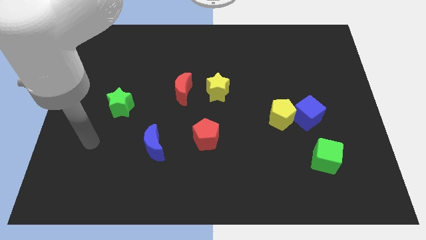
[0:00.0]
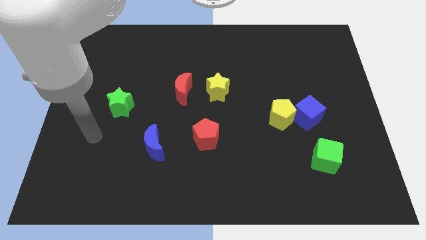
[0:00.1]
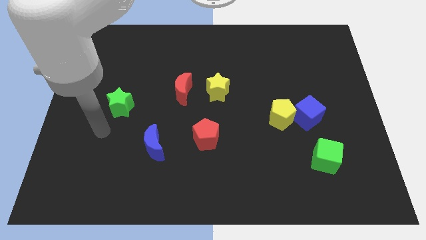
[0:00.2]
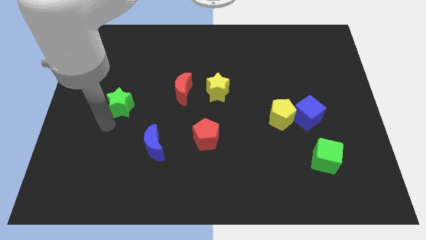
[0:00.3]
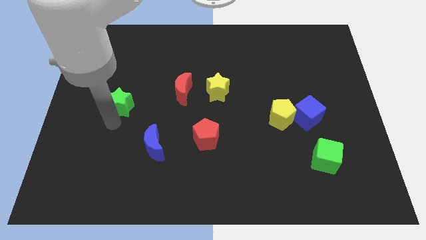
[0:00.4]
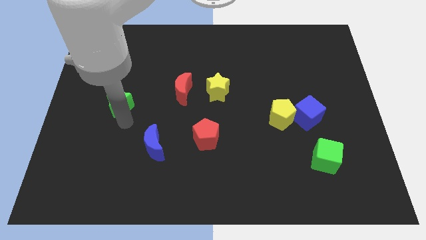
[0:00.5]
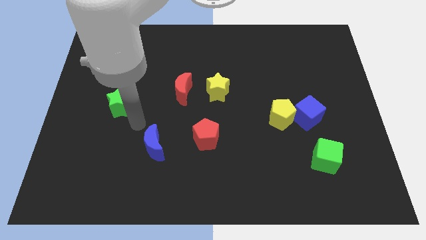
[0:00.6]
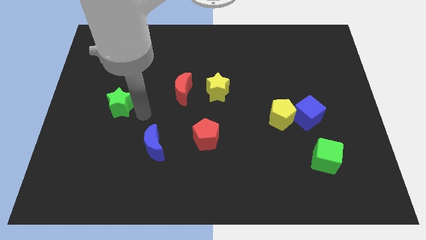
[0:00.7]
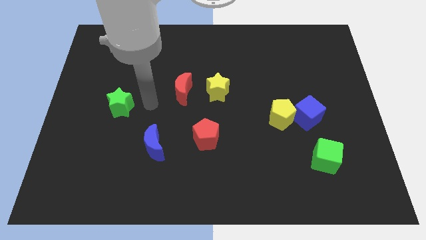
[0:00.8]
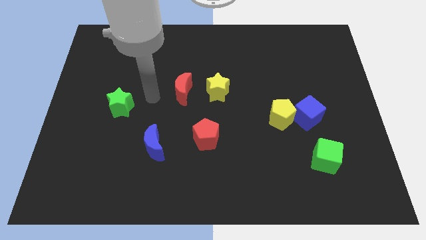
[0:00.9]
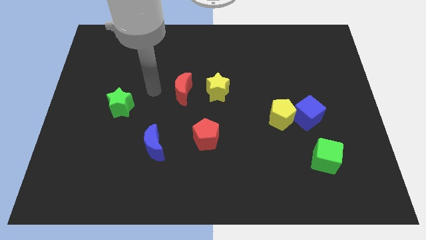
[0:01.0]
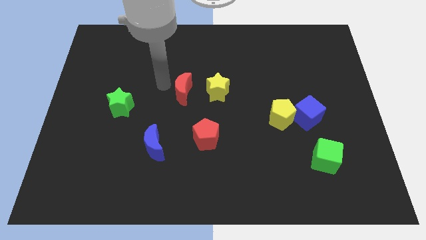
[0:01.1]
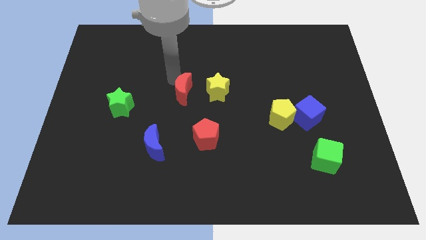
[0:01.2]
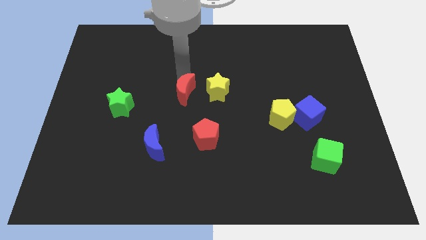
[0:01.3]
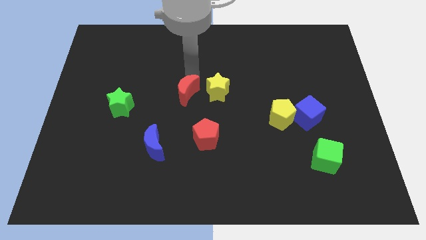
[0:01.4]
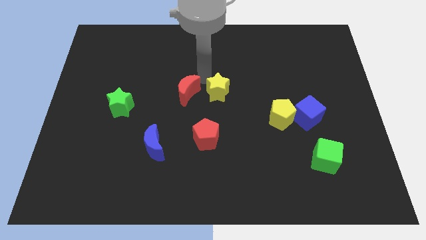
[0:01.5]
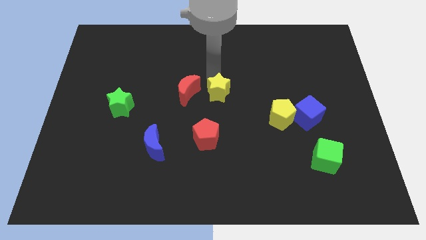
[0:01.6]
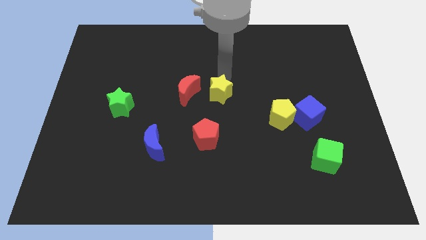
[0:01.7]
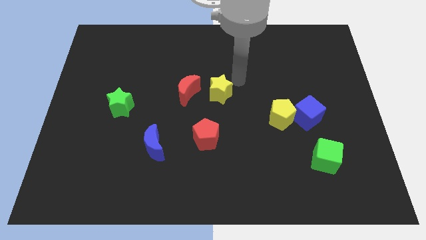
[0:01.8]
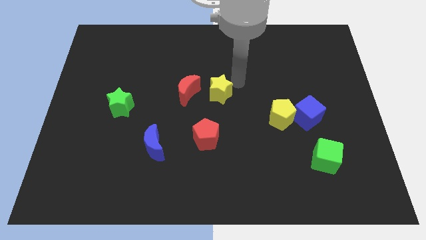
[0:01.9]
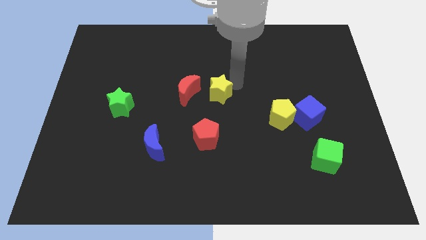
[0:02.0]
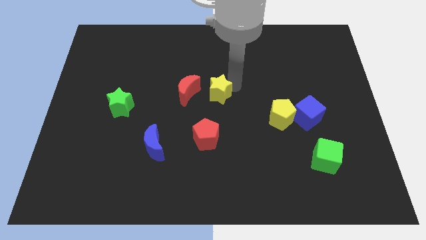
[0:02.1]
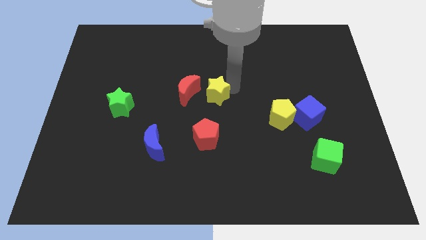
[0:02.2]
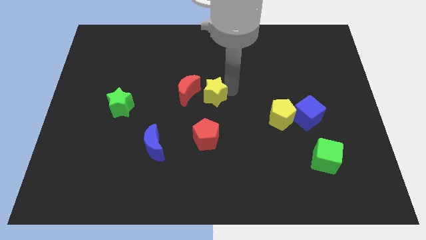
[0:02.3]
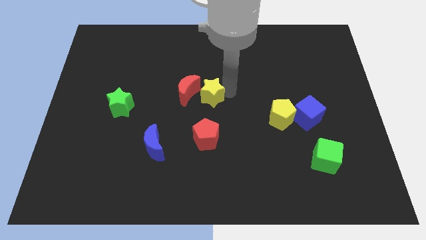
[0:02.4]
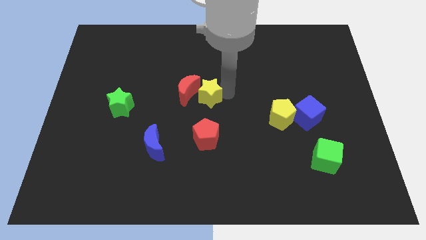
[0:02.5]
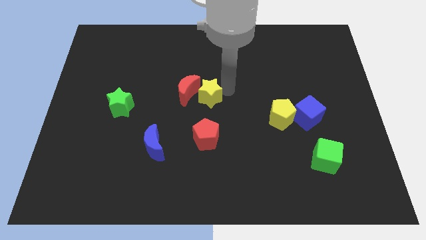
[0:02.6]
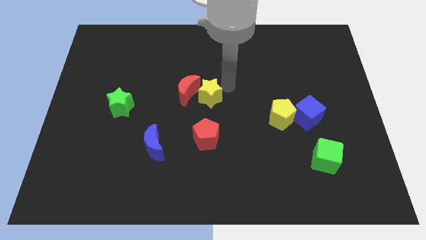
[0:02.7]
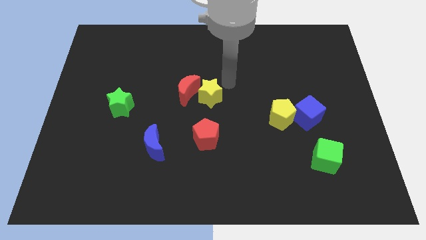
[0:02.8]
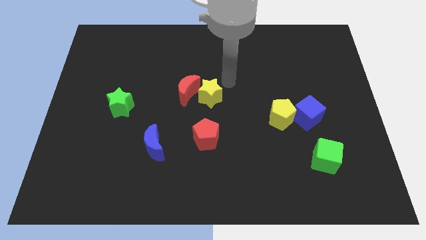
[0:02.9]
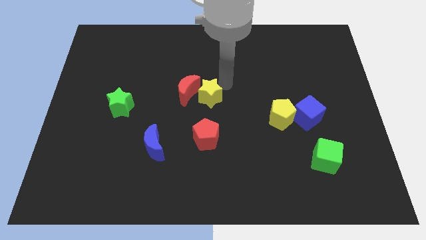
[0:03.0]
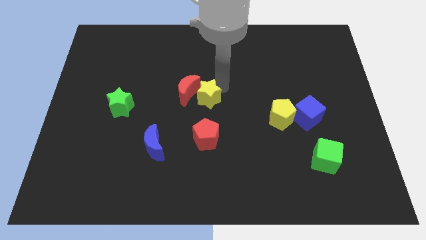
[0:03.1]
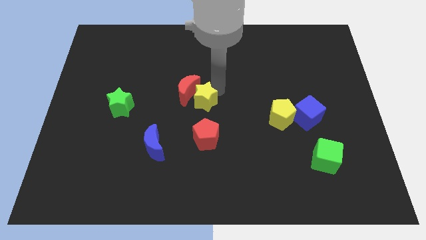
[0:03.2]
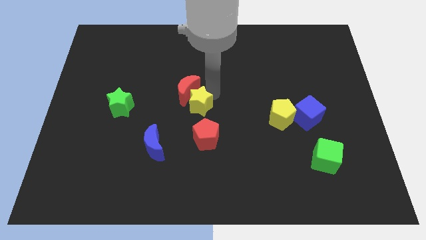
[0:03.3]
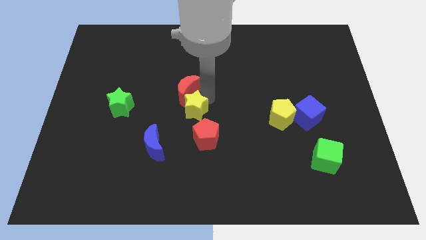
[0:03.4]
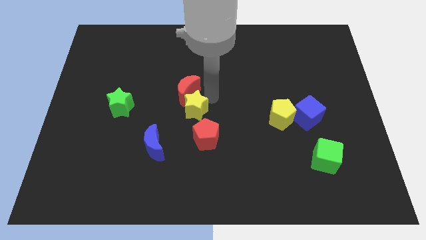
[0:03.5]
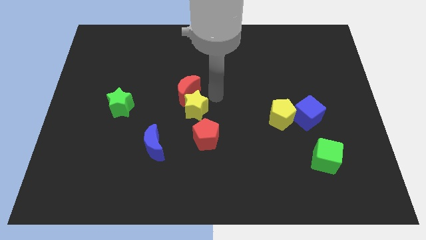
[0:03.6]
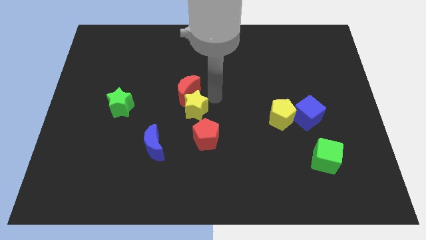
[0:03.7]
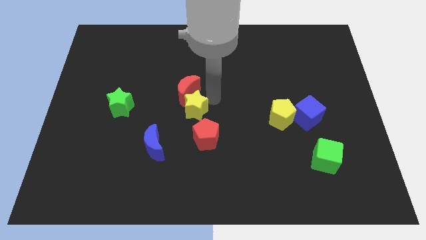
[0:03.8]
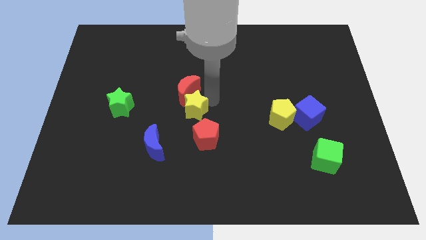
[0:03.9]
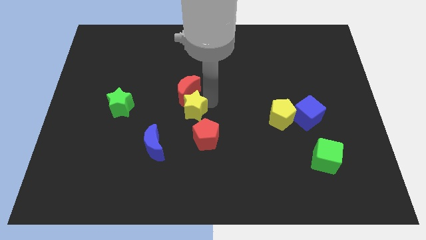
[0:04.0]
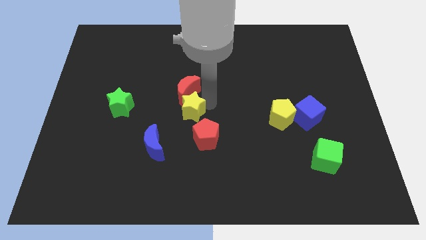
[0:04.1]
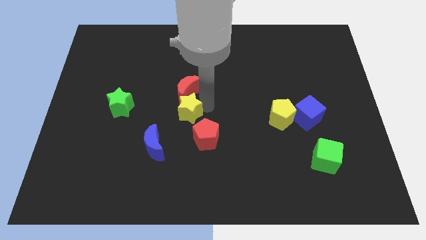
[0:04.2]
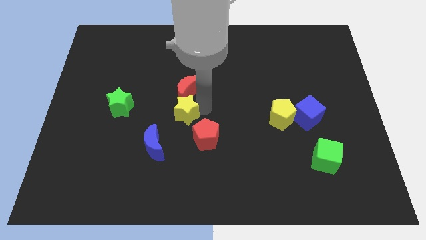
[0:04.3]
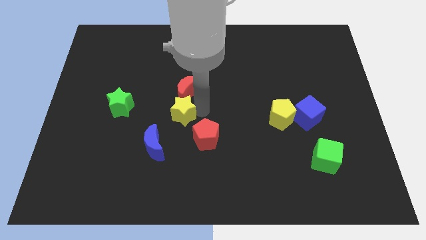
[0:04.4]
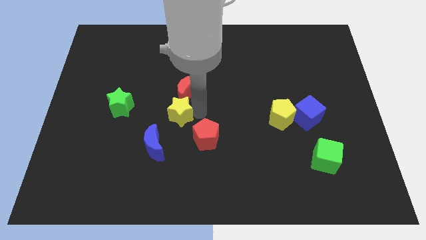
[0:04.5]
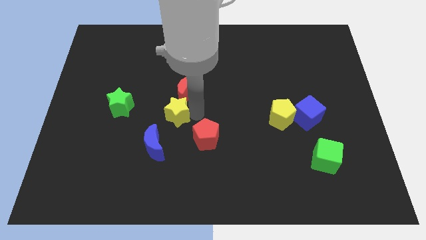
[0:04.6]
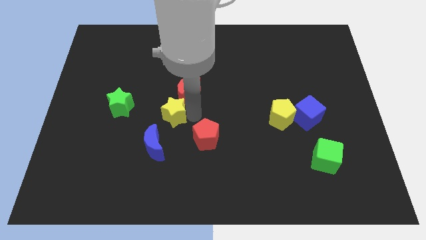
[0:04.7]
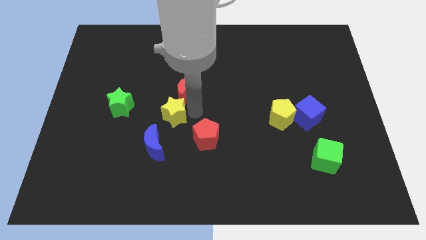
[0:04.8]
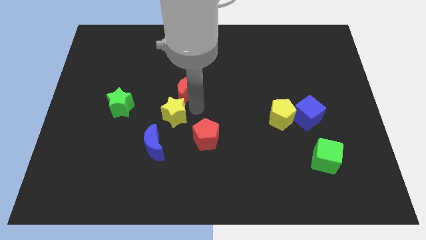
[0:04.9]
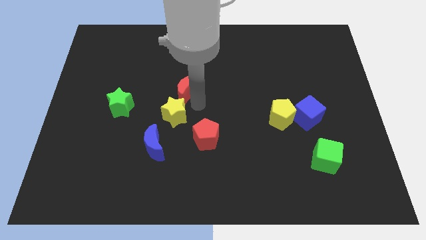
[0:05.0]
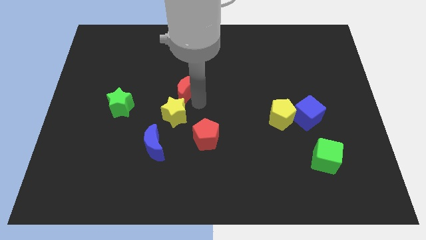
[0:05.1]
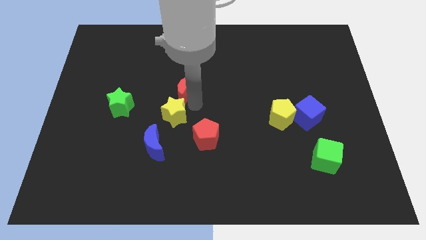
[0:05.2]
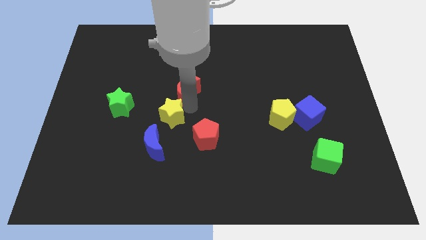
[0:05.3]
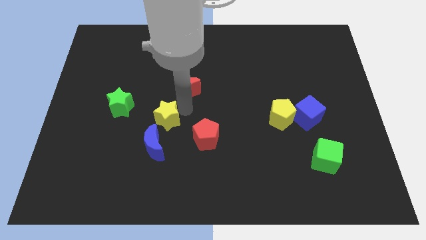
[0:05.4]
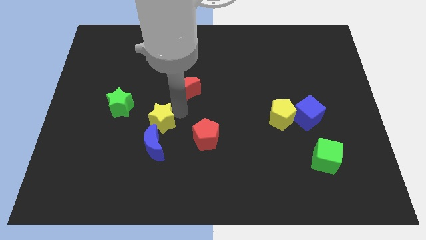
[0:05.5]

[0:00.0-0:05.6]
slide the yellow star to the left side of the red pentagon

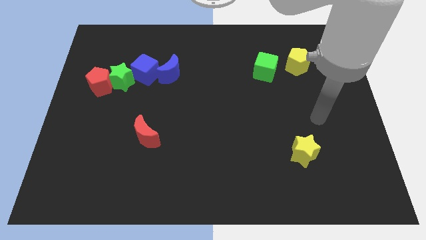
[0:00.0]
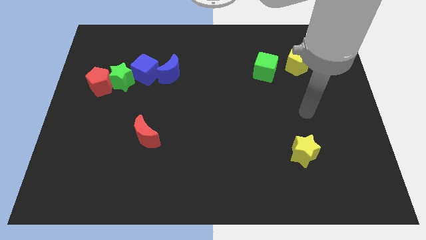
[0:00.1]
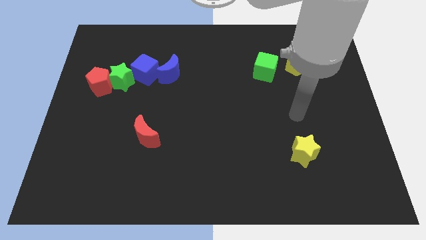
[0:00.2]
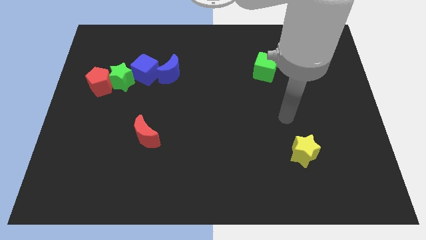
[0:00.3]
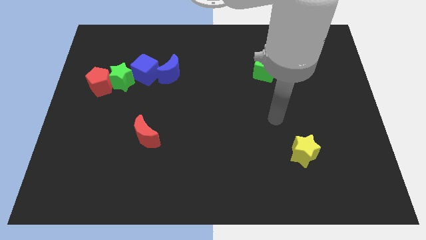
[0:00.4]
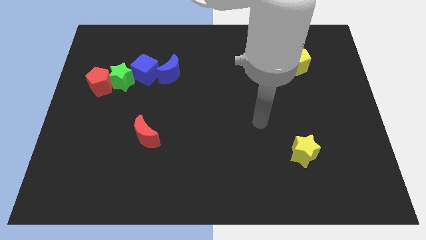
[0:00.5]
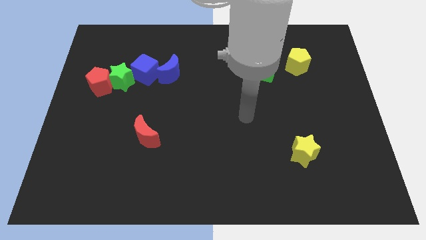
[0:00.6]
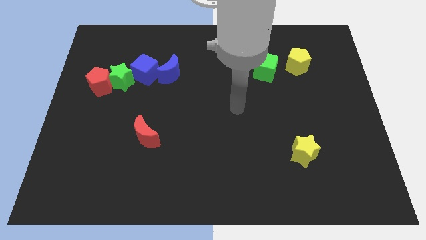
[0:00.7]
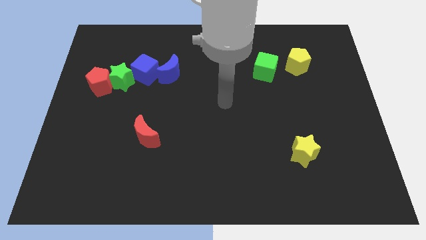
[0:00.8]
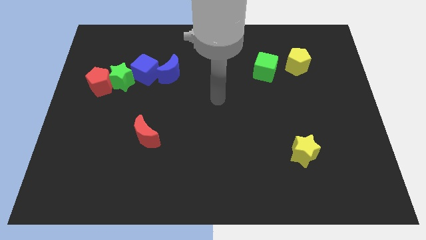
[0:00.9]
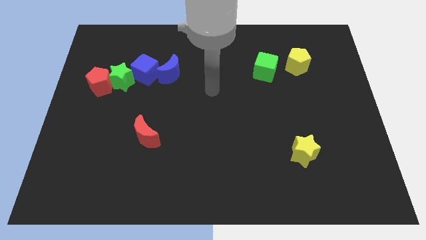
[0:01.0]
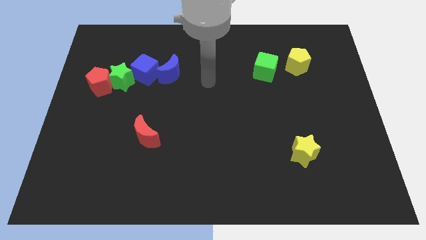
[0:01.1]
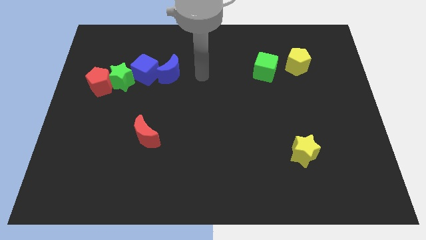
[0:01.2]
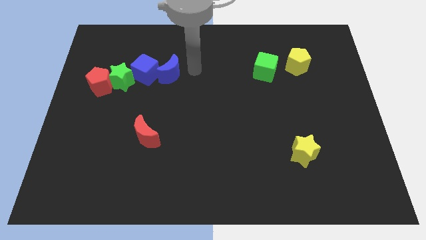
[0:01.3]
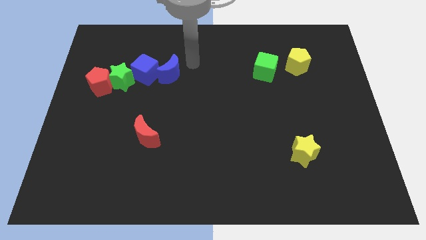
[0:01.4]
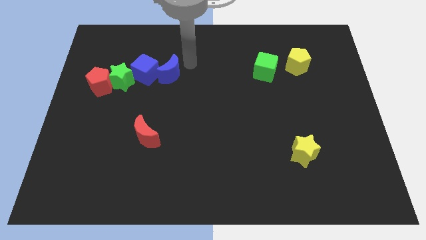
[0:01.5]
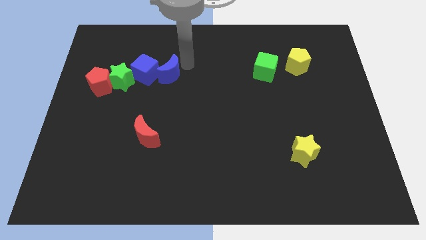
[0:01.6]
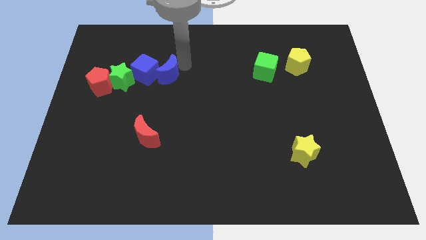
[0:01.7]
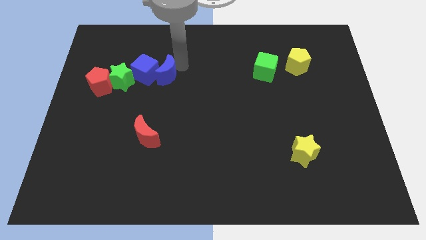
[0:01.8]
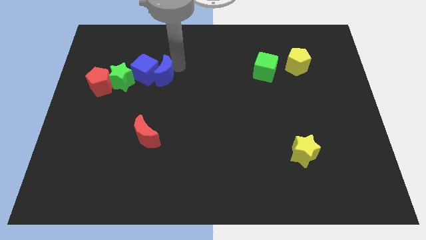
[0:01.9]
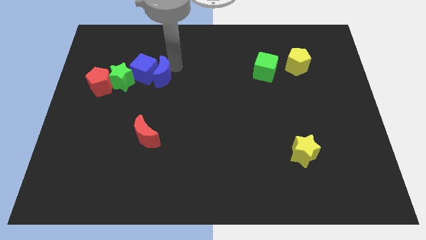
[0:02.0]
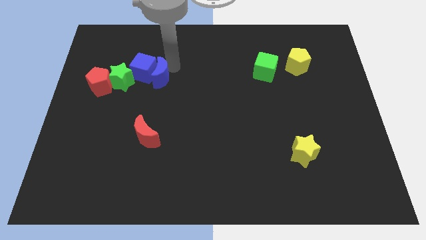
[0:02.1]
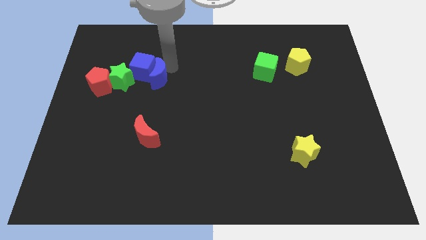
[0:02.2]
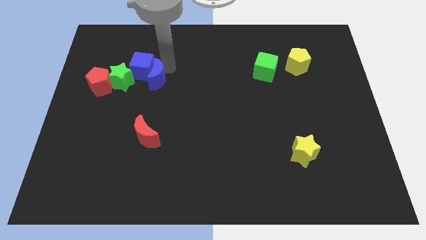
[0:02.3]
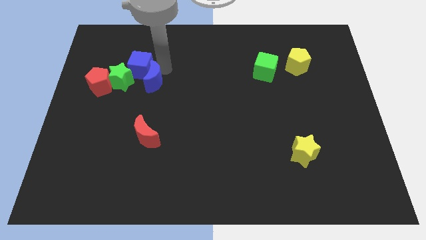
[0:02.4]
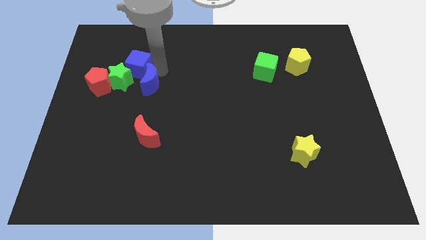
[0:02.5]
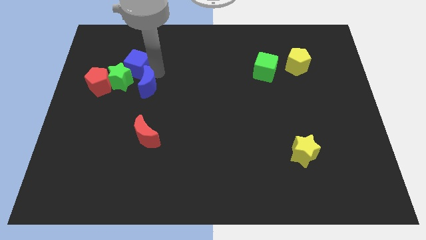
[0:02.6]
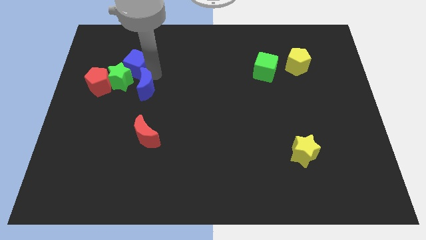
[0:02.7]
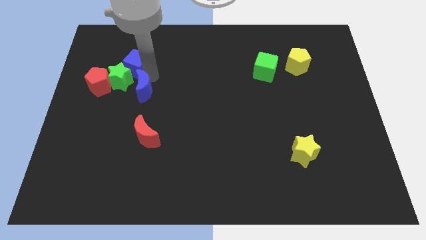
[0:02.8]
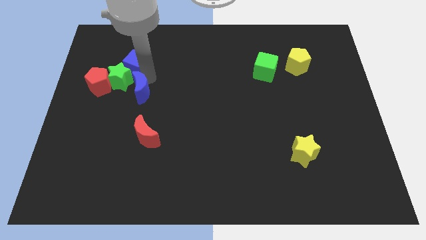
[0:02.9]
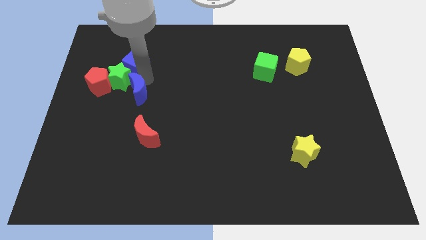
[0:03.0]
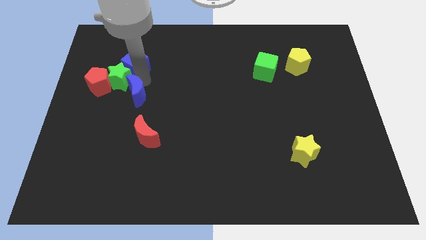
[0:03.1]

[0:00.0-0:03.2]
slide the blue moon to the bottom right of the red pentagon
